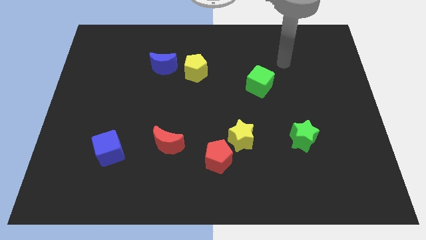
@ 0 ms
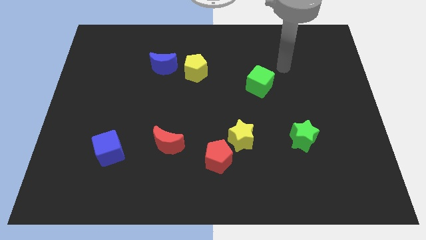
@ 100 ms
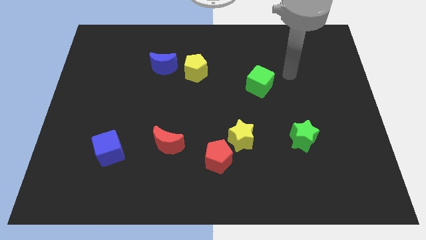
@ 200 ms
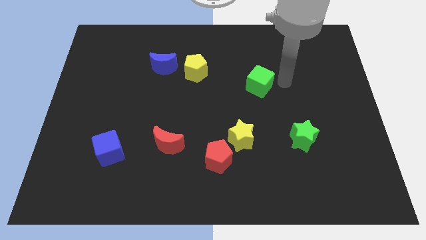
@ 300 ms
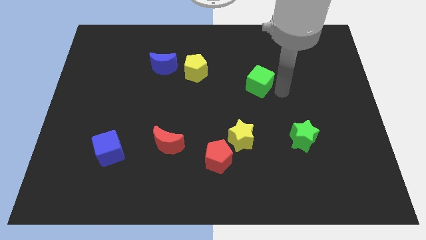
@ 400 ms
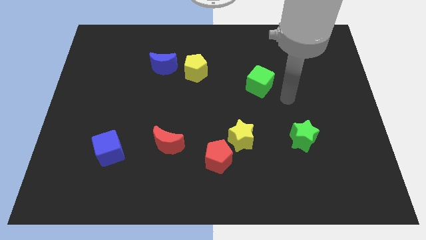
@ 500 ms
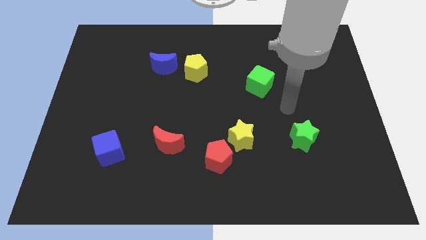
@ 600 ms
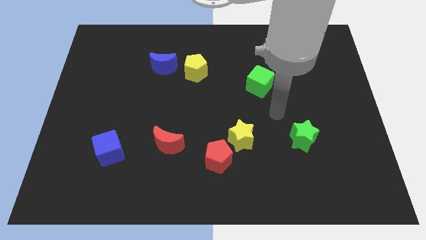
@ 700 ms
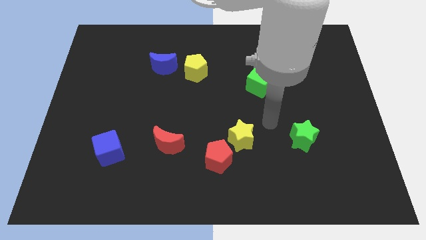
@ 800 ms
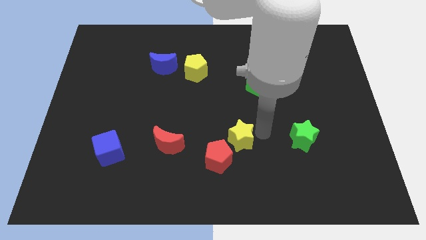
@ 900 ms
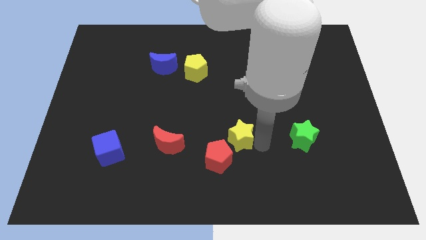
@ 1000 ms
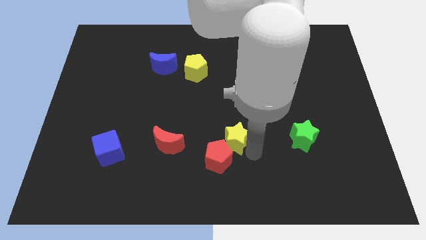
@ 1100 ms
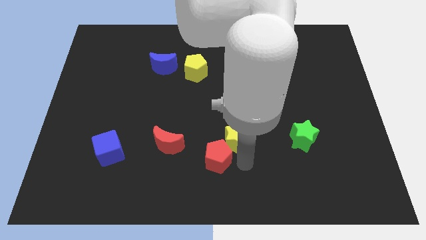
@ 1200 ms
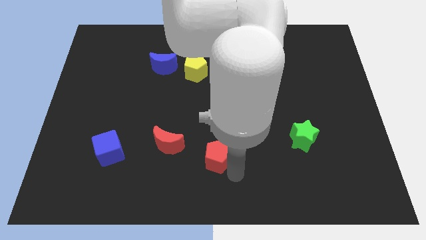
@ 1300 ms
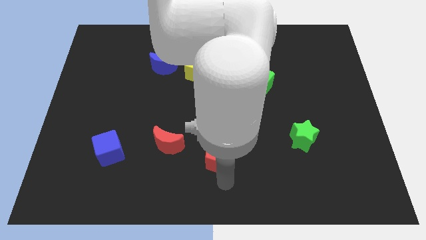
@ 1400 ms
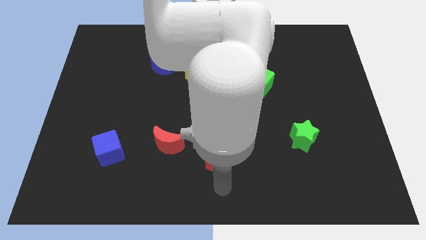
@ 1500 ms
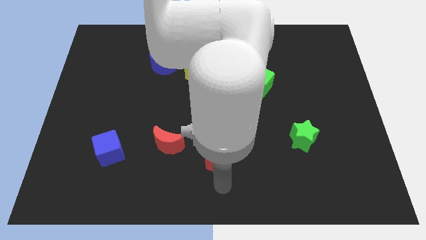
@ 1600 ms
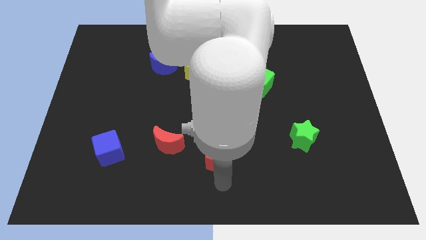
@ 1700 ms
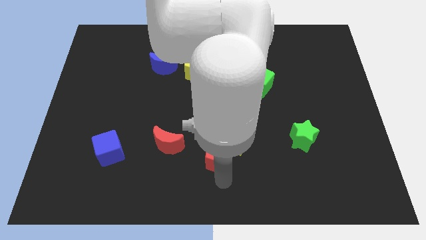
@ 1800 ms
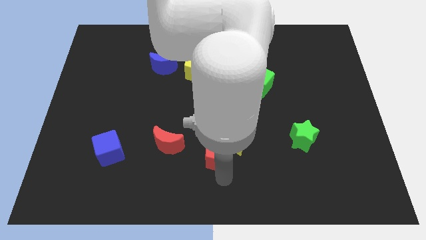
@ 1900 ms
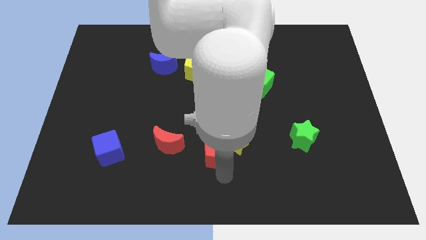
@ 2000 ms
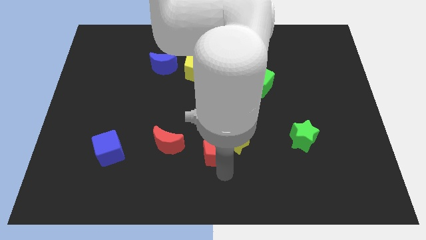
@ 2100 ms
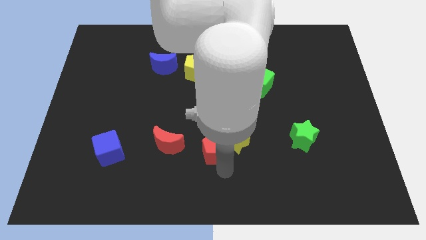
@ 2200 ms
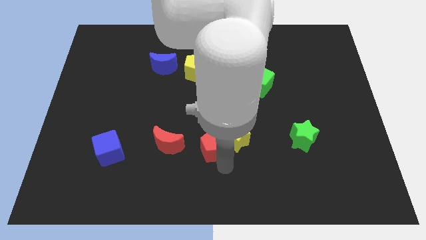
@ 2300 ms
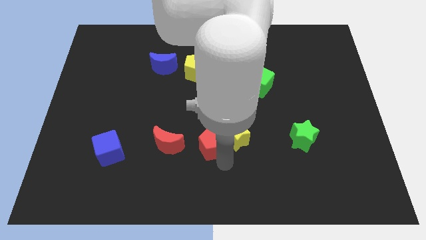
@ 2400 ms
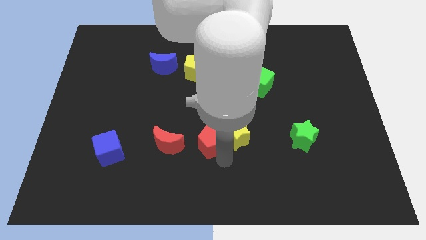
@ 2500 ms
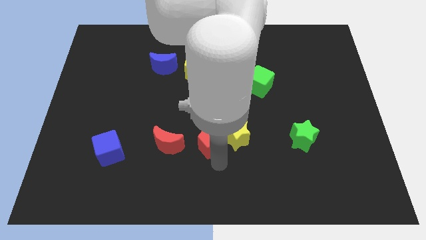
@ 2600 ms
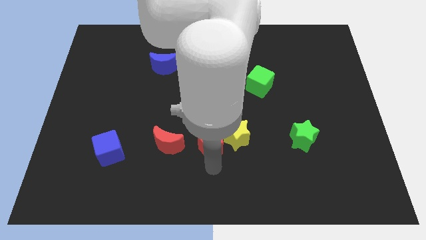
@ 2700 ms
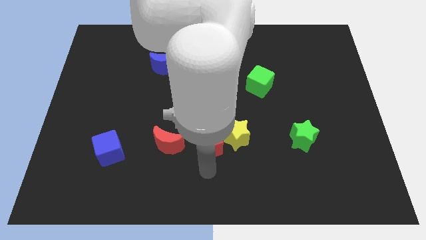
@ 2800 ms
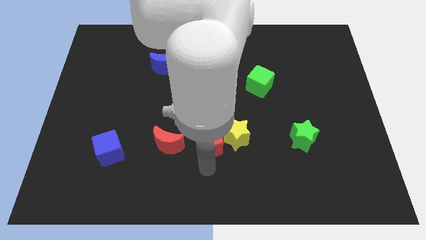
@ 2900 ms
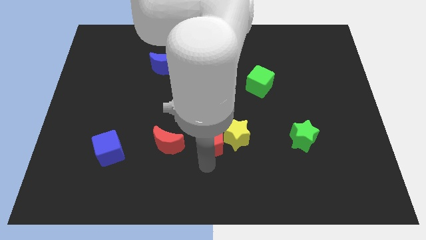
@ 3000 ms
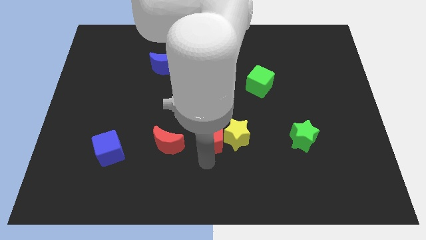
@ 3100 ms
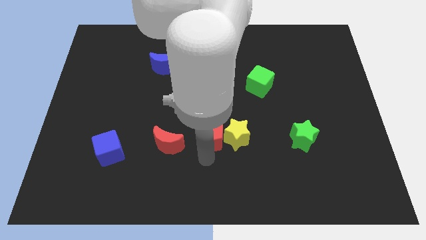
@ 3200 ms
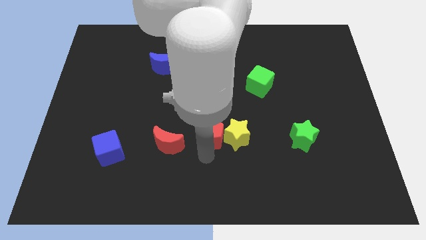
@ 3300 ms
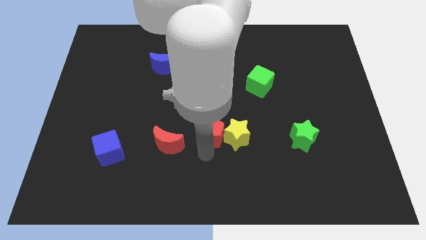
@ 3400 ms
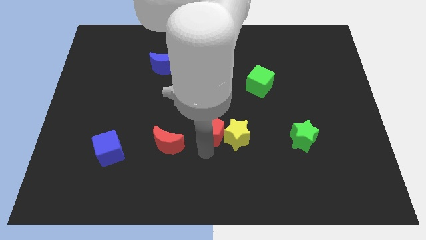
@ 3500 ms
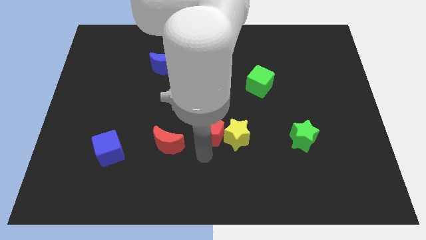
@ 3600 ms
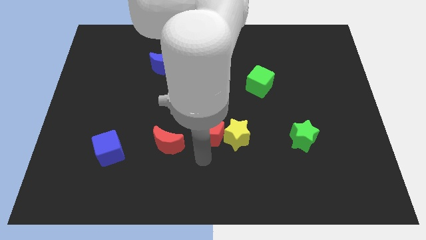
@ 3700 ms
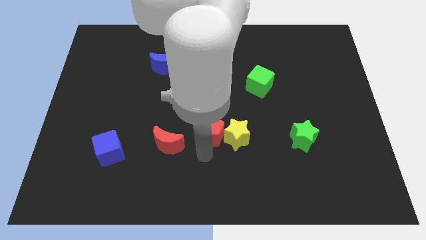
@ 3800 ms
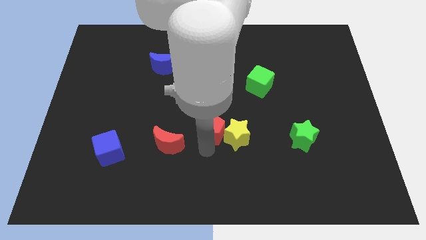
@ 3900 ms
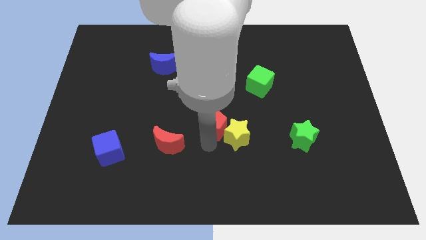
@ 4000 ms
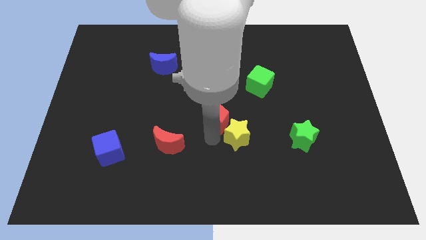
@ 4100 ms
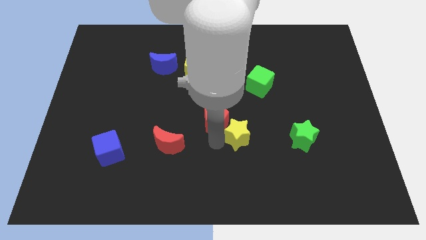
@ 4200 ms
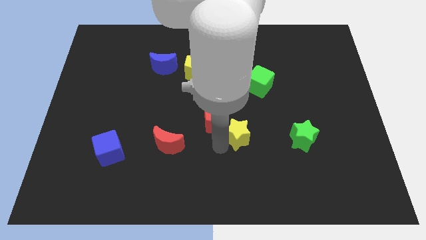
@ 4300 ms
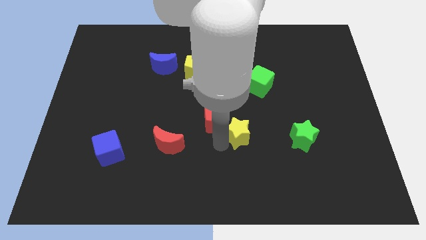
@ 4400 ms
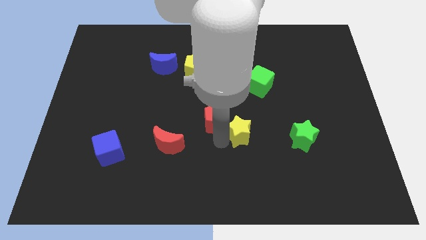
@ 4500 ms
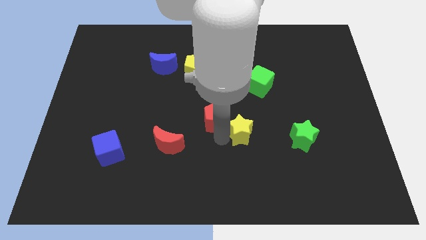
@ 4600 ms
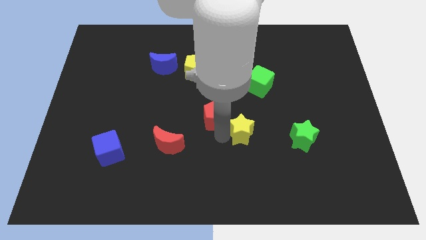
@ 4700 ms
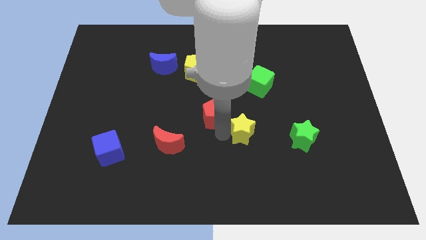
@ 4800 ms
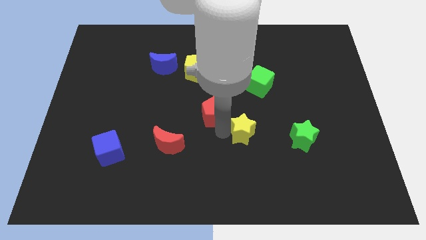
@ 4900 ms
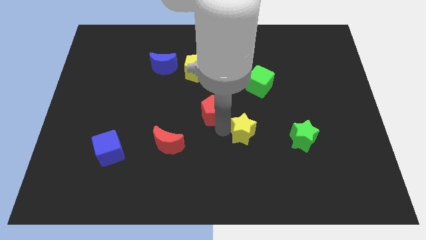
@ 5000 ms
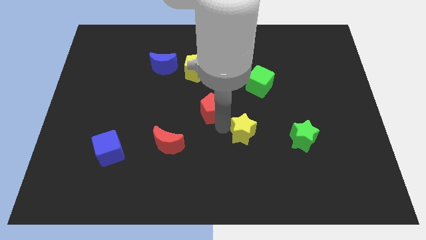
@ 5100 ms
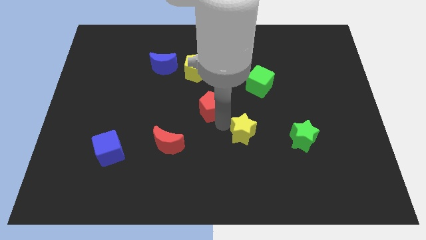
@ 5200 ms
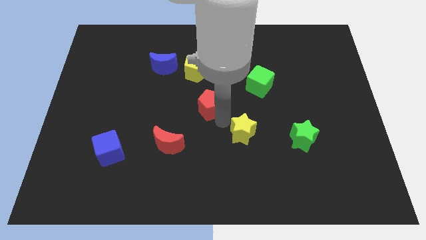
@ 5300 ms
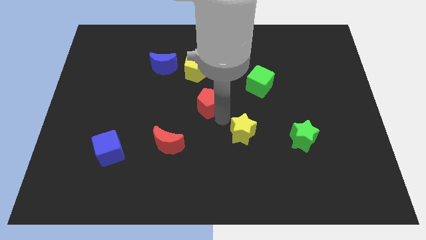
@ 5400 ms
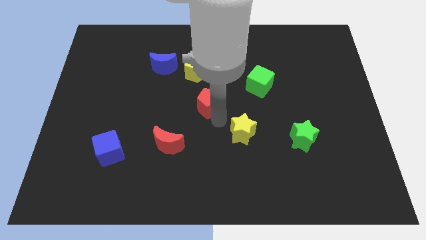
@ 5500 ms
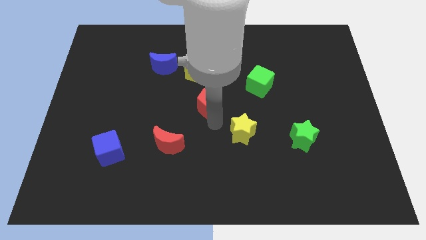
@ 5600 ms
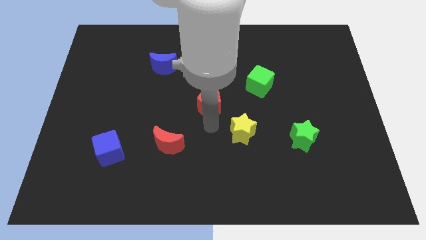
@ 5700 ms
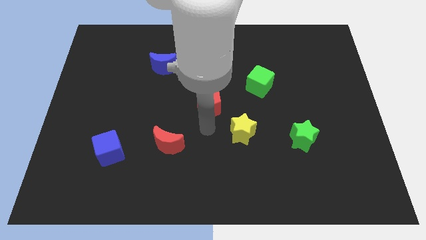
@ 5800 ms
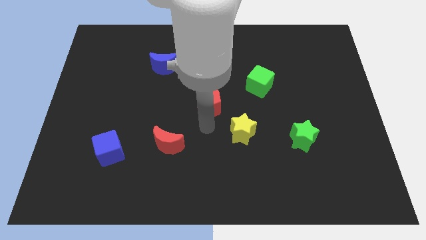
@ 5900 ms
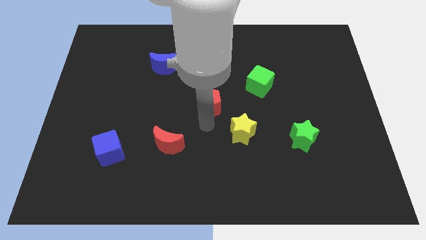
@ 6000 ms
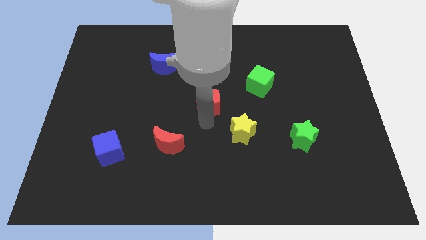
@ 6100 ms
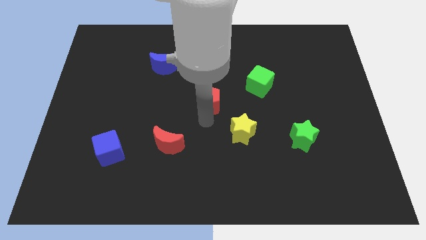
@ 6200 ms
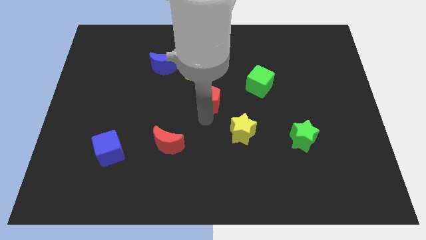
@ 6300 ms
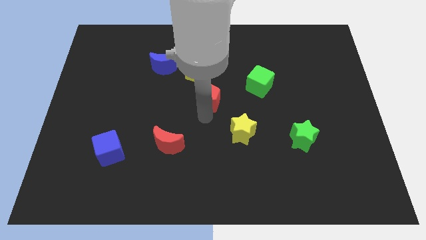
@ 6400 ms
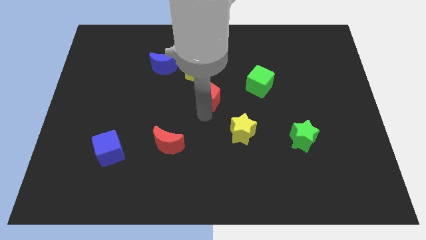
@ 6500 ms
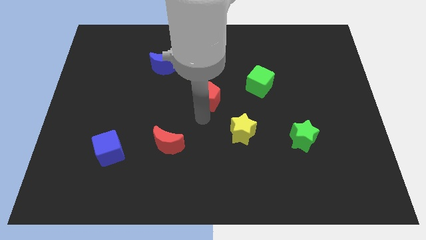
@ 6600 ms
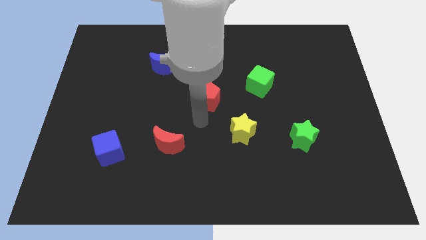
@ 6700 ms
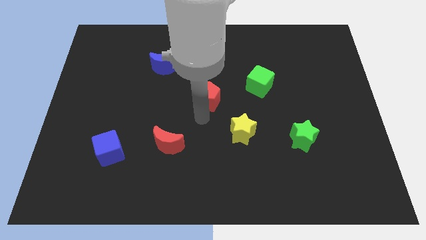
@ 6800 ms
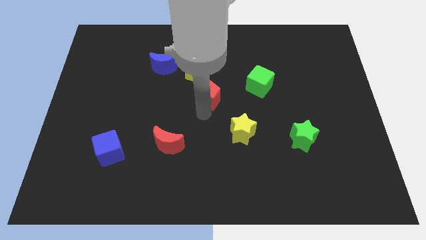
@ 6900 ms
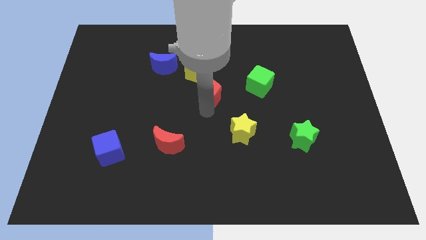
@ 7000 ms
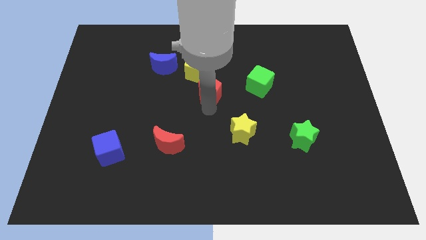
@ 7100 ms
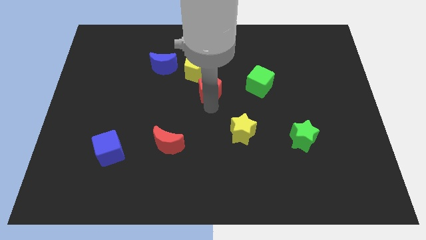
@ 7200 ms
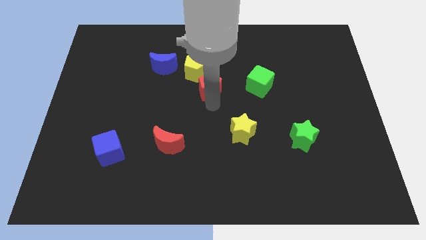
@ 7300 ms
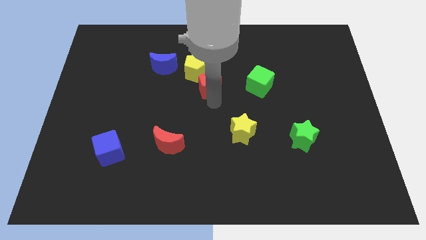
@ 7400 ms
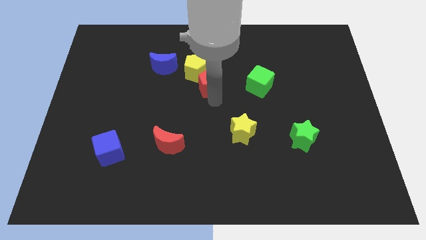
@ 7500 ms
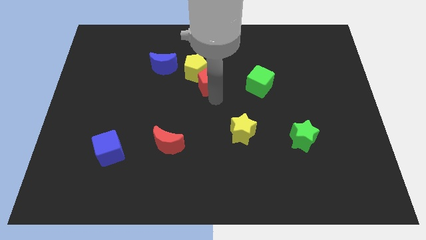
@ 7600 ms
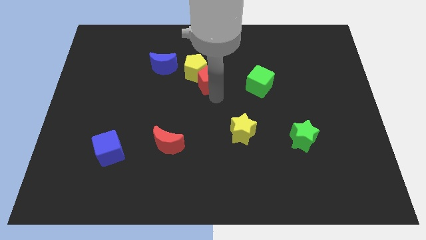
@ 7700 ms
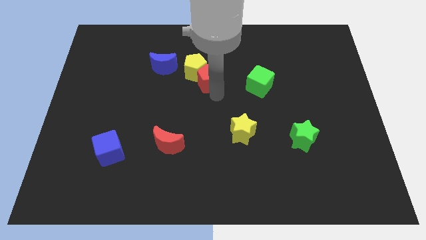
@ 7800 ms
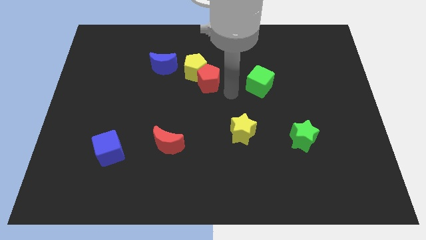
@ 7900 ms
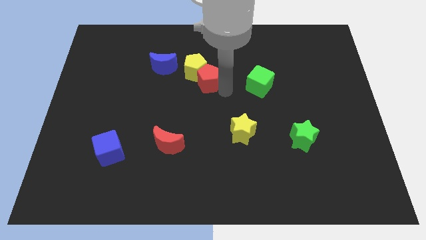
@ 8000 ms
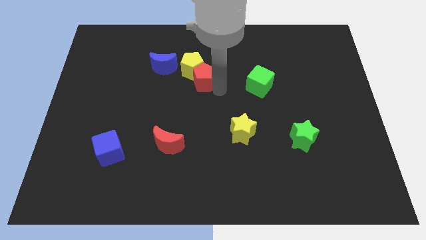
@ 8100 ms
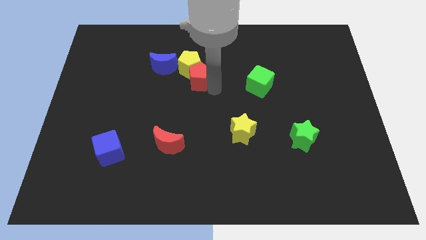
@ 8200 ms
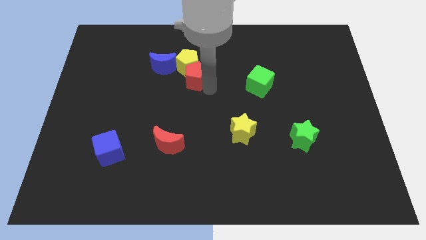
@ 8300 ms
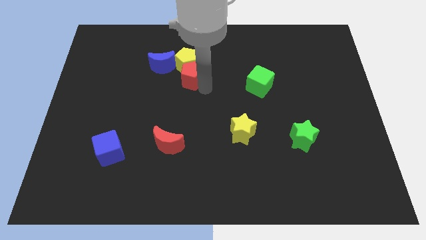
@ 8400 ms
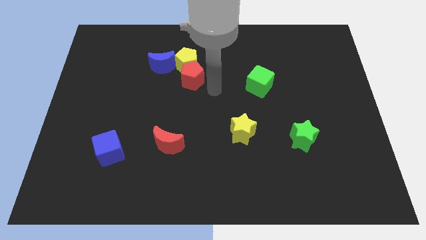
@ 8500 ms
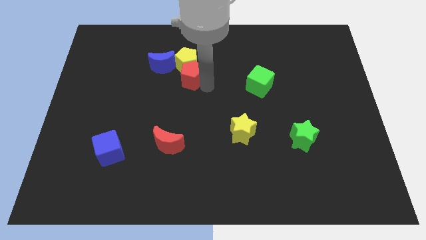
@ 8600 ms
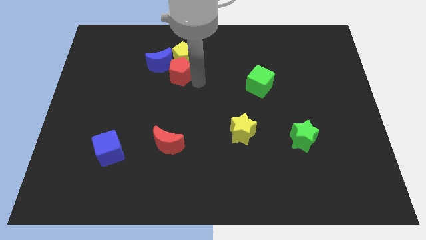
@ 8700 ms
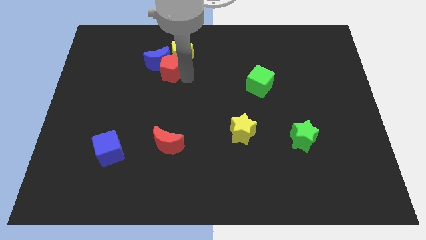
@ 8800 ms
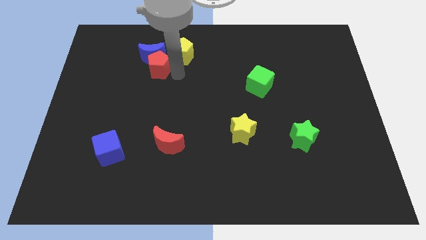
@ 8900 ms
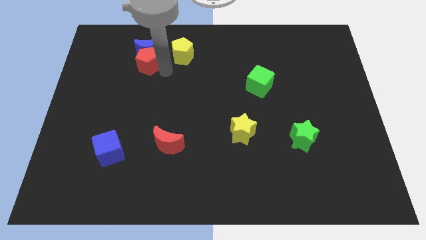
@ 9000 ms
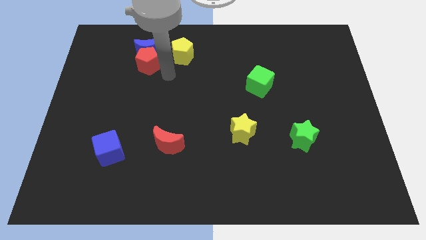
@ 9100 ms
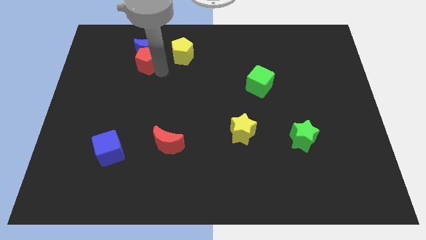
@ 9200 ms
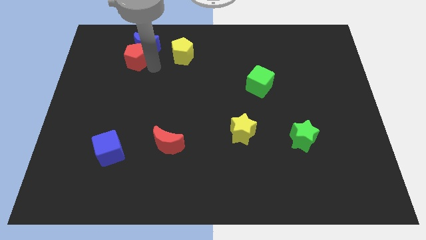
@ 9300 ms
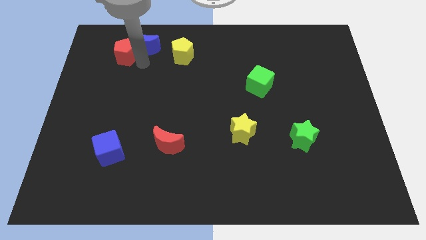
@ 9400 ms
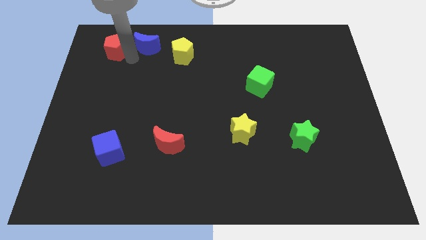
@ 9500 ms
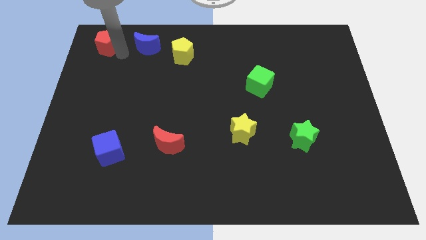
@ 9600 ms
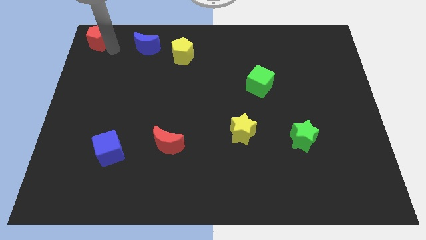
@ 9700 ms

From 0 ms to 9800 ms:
push the red pentagon to the upper left corner
